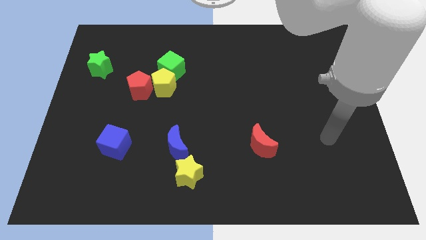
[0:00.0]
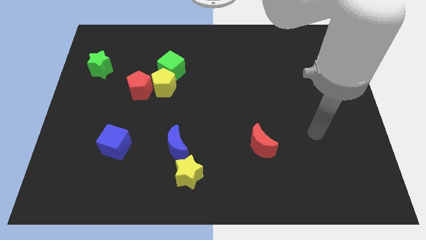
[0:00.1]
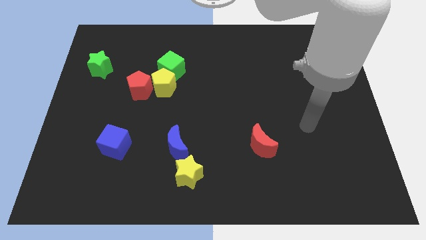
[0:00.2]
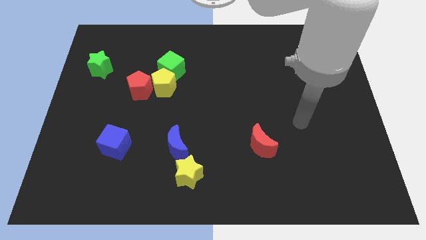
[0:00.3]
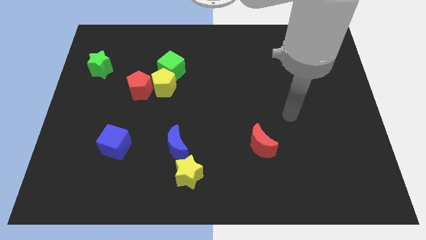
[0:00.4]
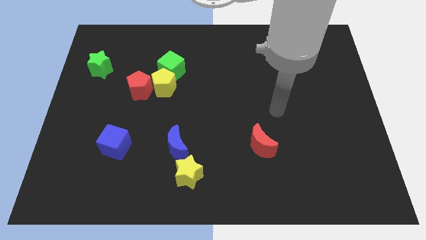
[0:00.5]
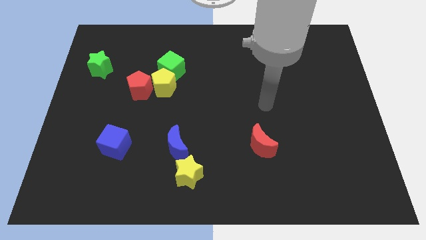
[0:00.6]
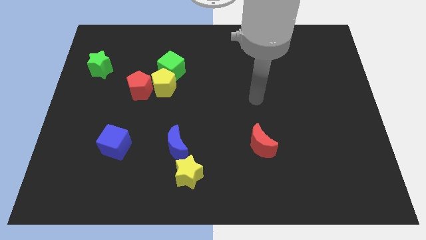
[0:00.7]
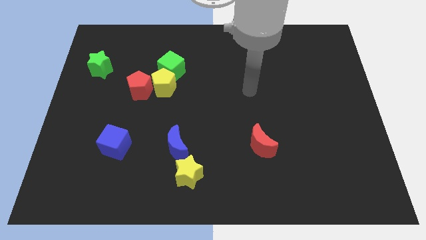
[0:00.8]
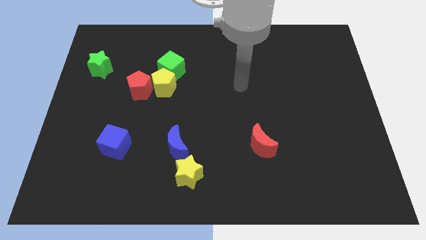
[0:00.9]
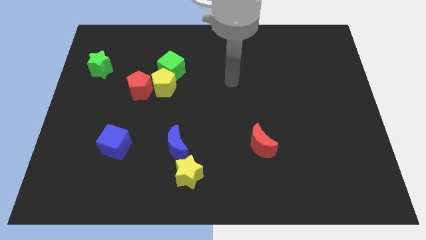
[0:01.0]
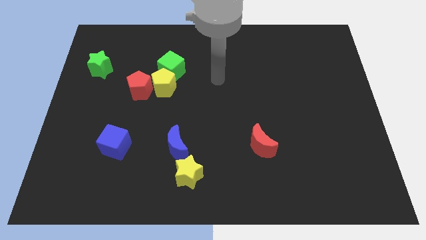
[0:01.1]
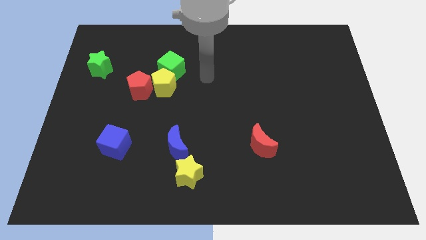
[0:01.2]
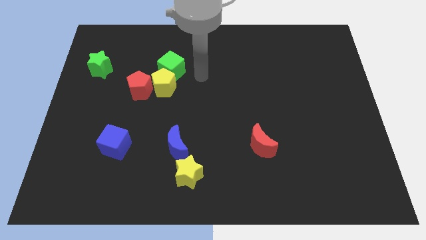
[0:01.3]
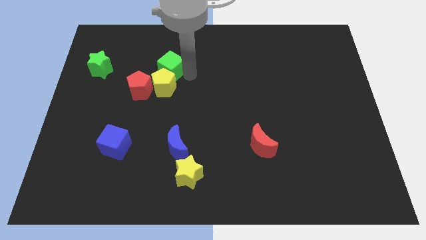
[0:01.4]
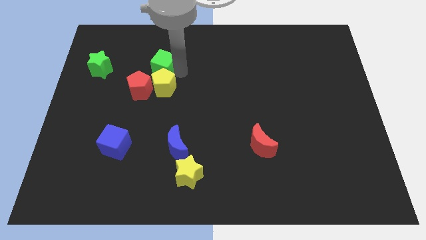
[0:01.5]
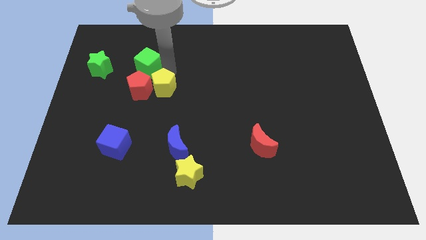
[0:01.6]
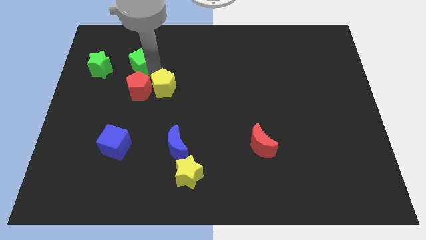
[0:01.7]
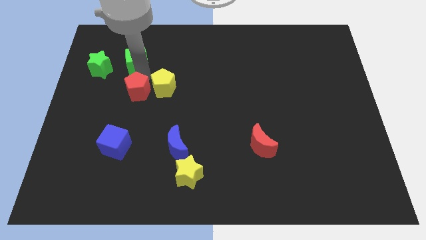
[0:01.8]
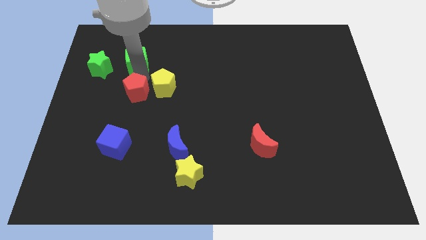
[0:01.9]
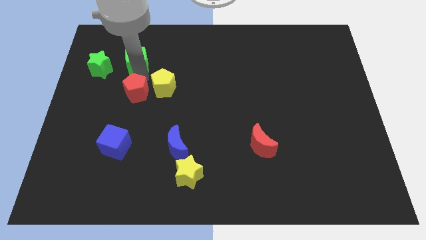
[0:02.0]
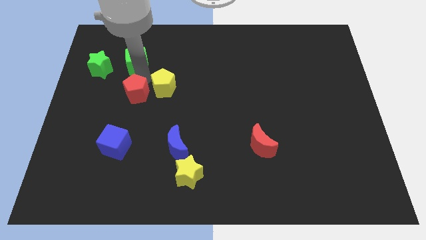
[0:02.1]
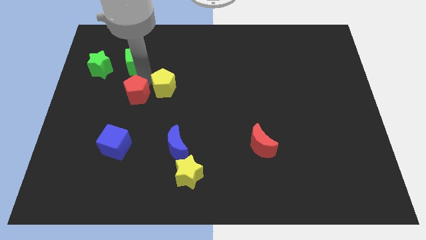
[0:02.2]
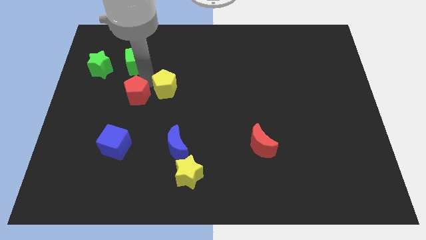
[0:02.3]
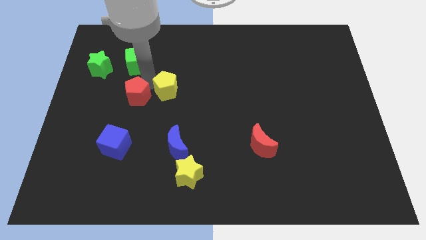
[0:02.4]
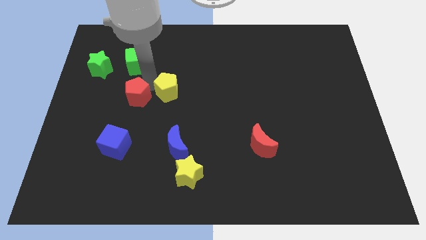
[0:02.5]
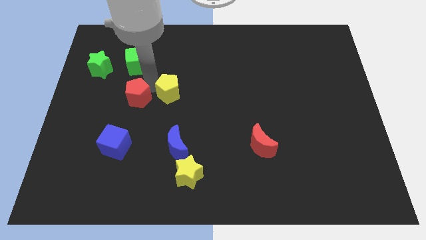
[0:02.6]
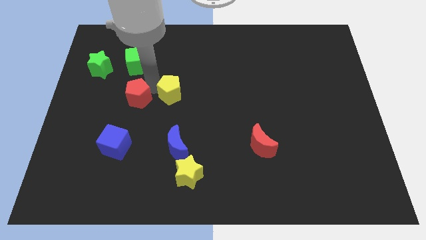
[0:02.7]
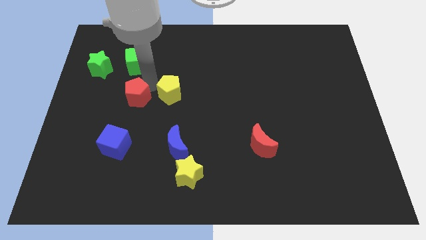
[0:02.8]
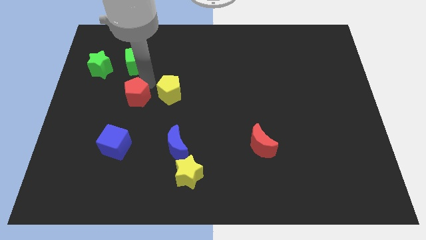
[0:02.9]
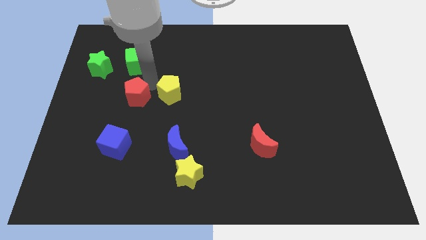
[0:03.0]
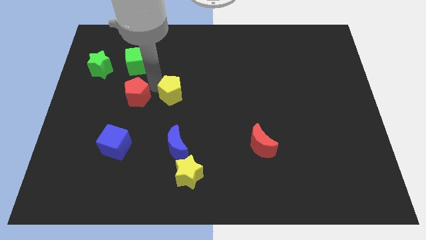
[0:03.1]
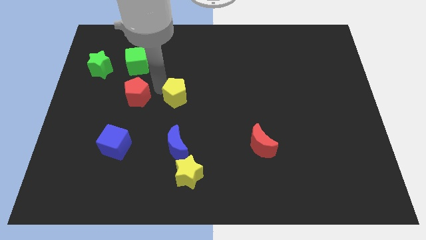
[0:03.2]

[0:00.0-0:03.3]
pull the yellow pentagon apart from the green cube and red pentagon

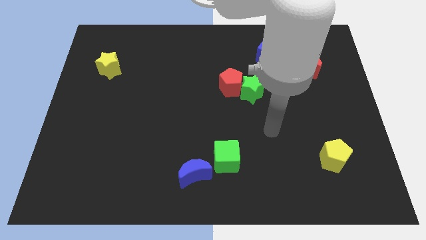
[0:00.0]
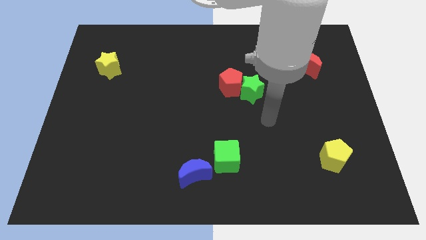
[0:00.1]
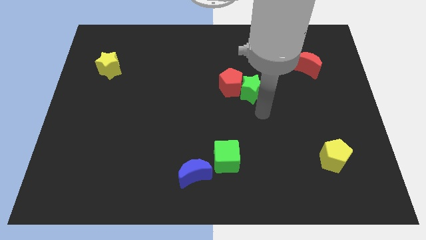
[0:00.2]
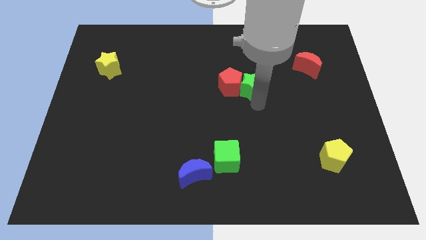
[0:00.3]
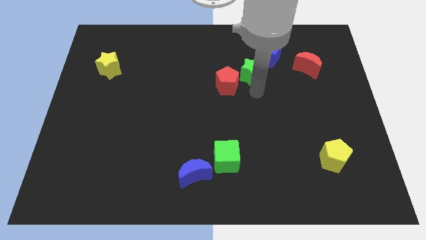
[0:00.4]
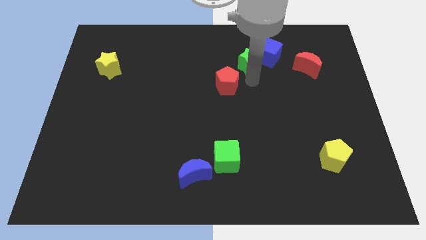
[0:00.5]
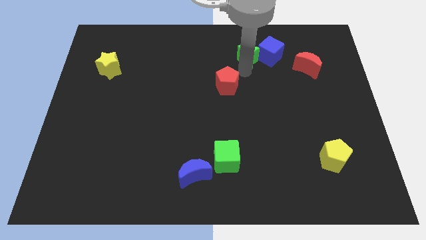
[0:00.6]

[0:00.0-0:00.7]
pull the red pentagon apart from the green star

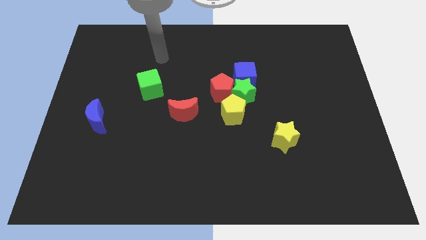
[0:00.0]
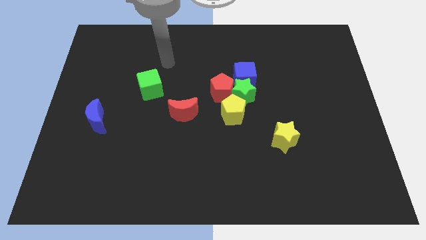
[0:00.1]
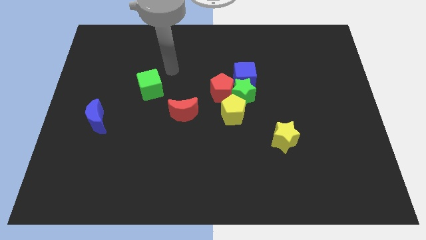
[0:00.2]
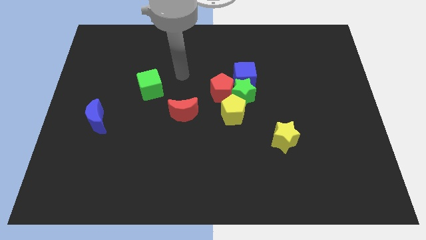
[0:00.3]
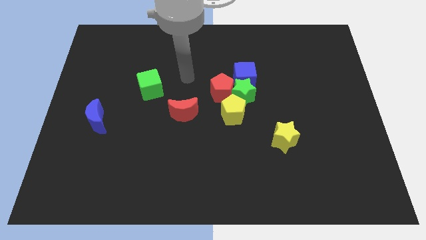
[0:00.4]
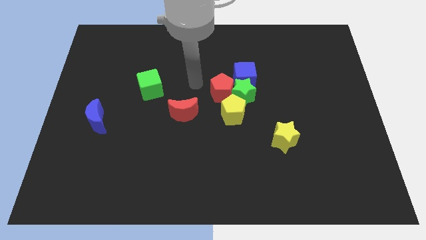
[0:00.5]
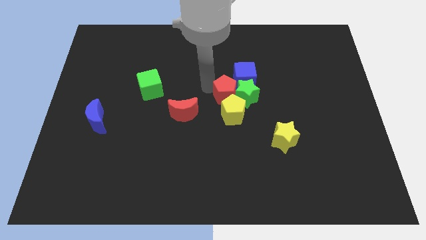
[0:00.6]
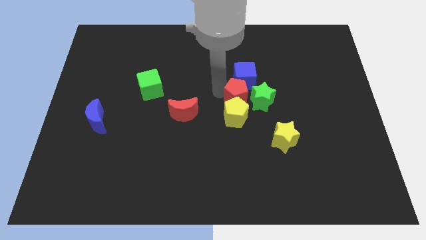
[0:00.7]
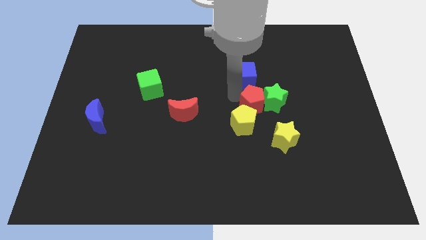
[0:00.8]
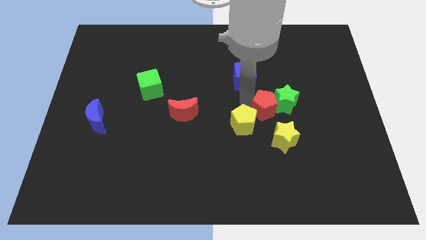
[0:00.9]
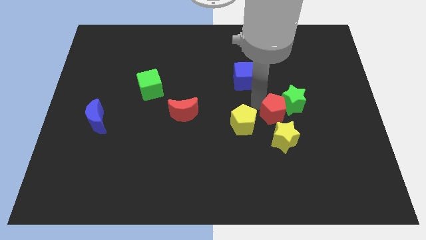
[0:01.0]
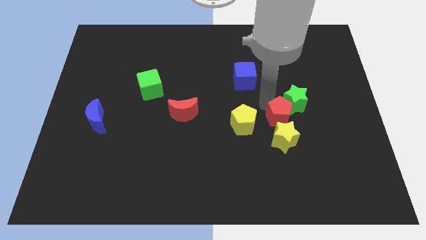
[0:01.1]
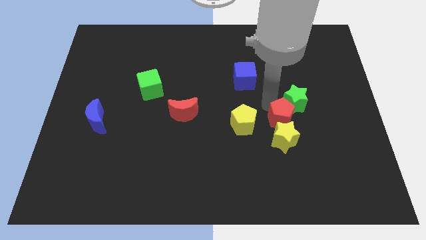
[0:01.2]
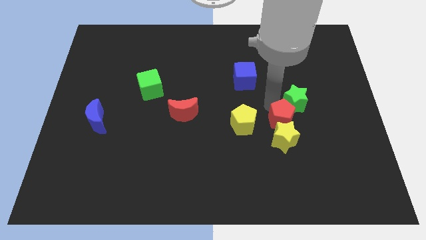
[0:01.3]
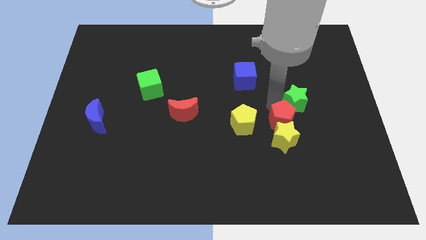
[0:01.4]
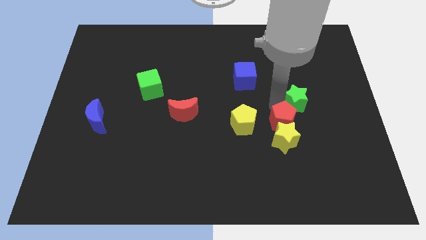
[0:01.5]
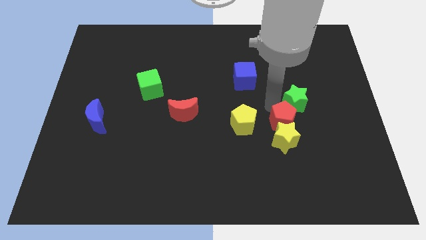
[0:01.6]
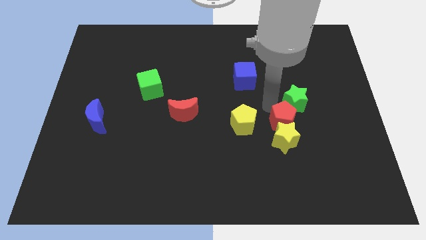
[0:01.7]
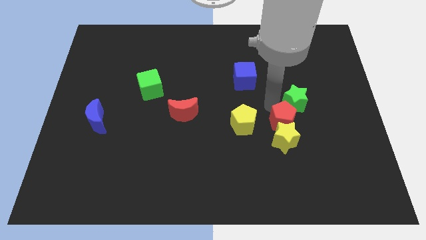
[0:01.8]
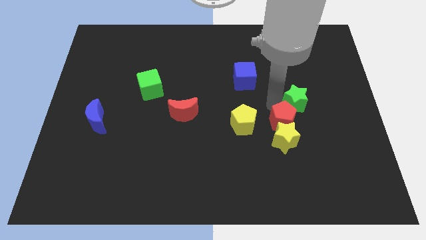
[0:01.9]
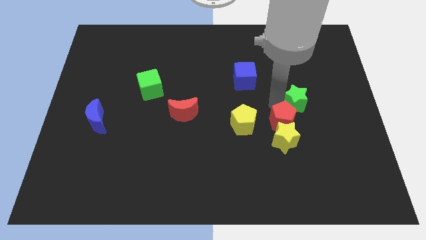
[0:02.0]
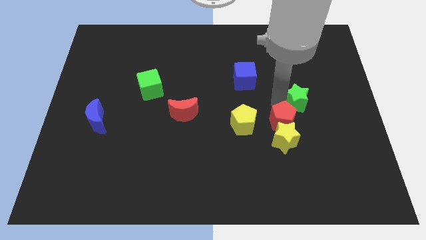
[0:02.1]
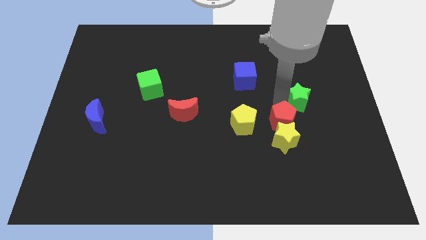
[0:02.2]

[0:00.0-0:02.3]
pull the green star apart from the group of blocks

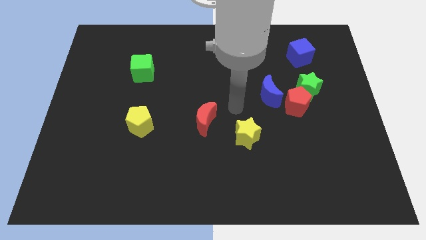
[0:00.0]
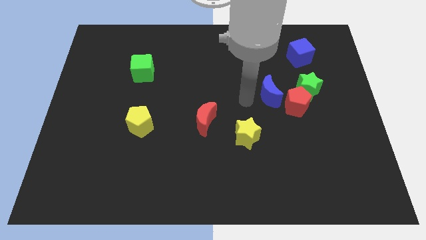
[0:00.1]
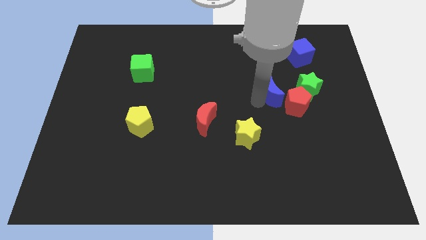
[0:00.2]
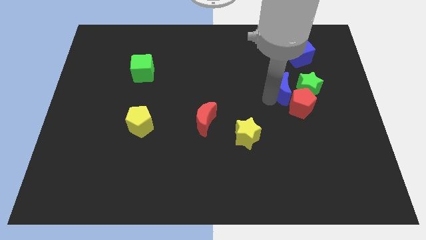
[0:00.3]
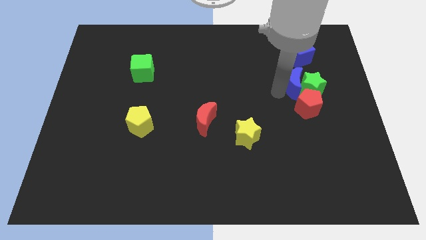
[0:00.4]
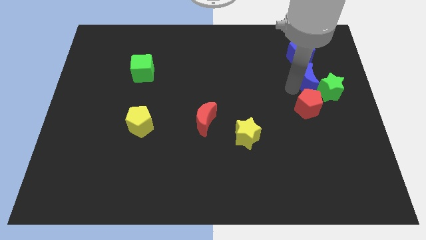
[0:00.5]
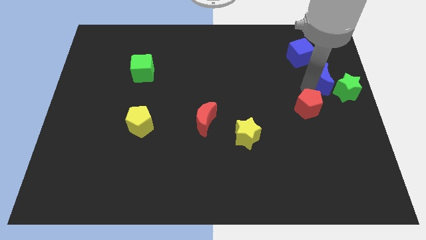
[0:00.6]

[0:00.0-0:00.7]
pull the red pentagon apart from the green star and blue moon

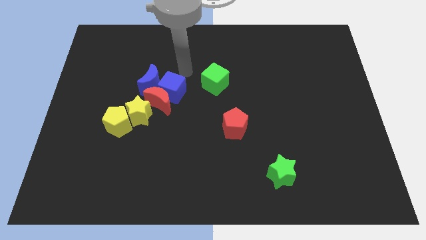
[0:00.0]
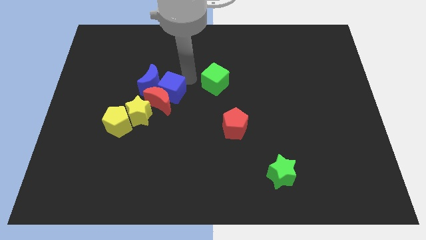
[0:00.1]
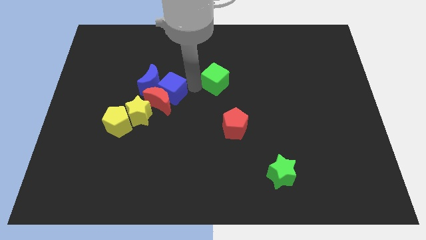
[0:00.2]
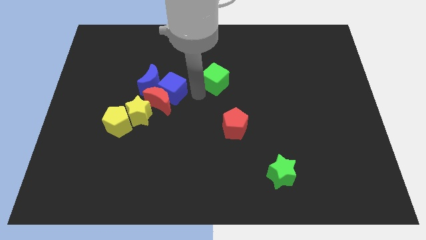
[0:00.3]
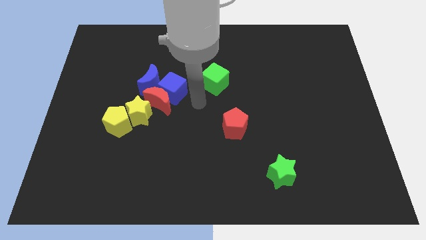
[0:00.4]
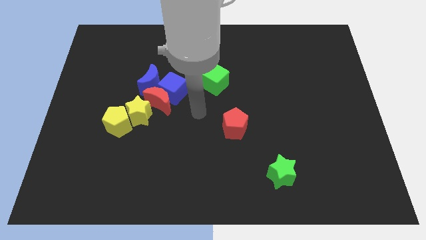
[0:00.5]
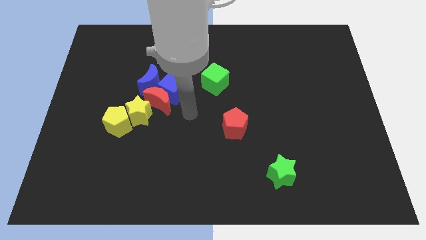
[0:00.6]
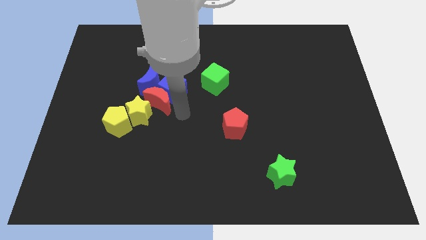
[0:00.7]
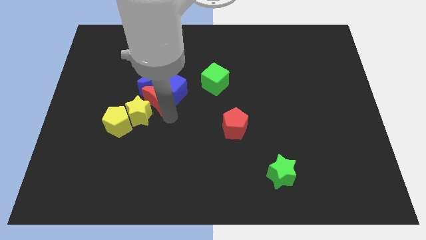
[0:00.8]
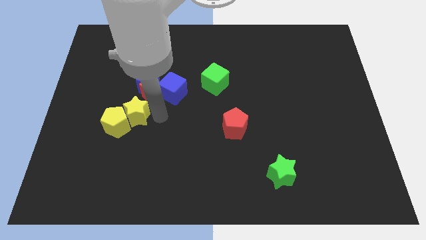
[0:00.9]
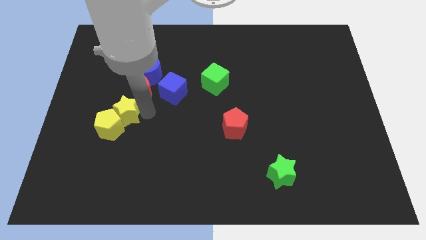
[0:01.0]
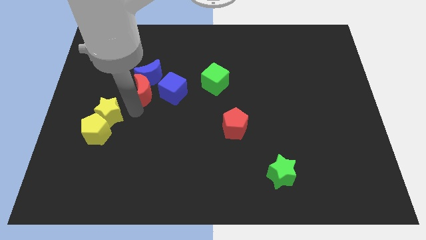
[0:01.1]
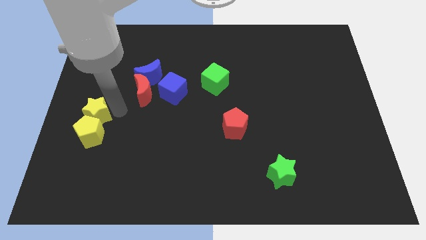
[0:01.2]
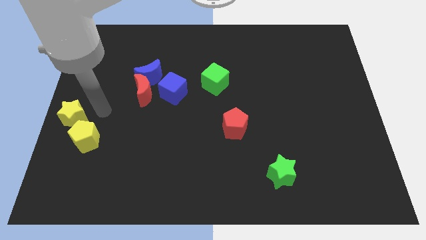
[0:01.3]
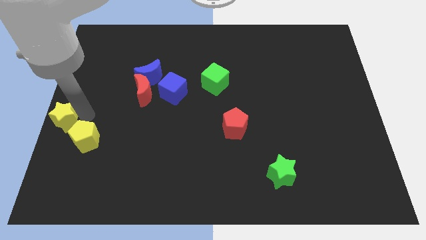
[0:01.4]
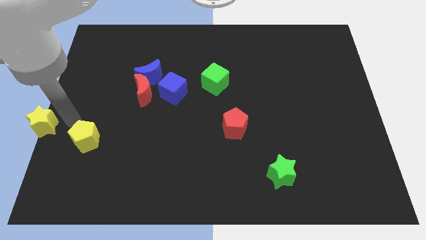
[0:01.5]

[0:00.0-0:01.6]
separate the yellow pentagon from the yellow star

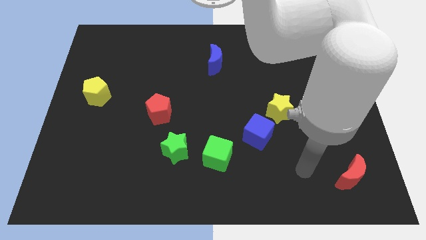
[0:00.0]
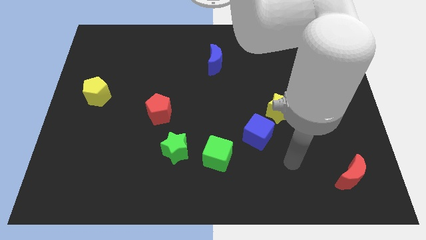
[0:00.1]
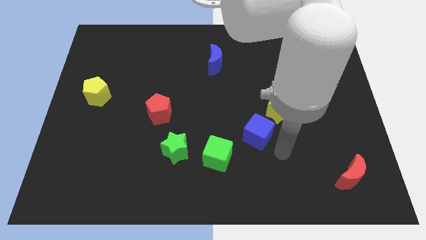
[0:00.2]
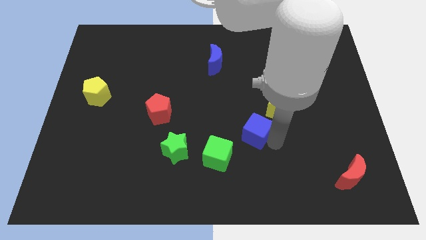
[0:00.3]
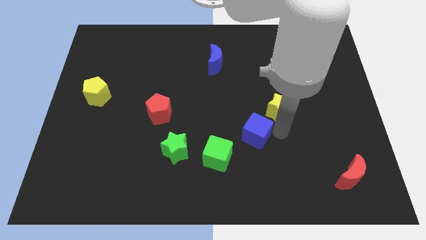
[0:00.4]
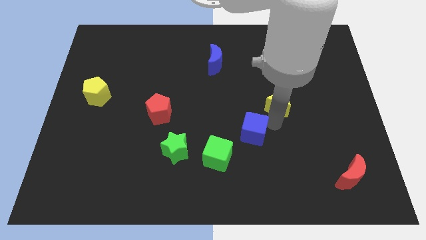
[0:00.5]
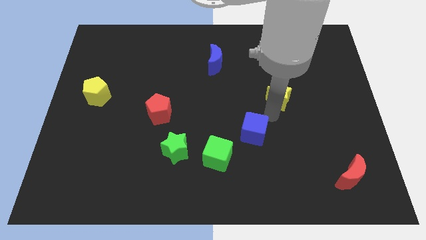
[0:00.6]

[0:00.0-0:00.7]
move the blue cube away from the yellow star
